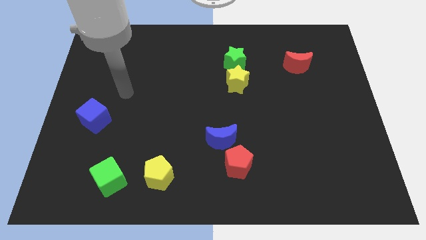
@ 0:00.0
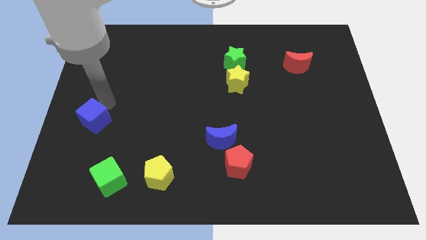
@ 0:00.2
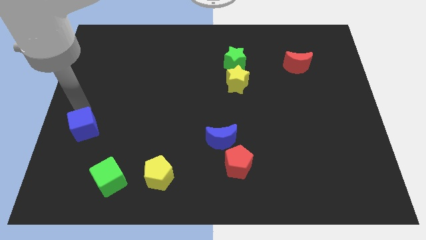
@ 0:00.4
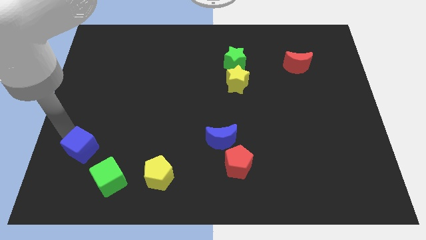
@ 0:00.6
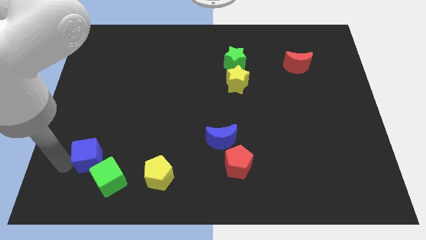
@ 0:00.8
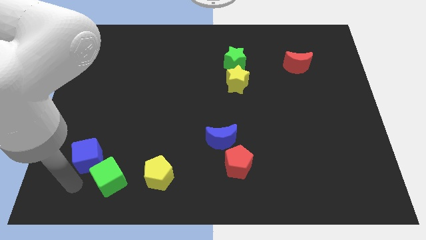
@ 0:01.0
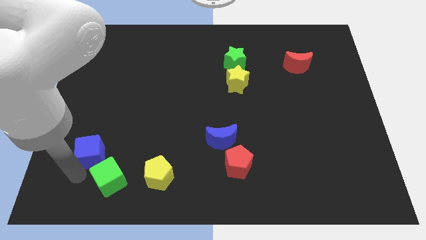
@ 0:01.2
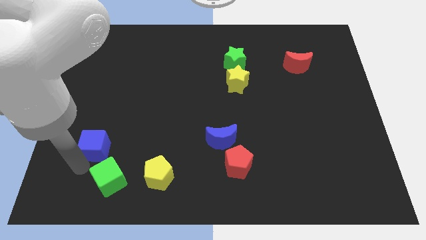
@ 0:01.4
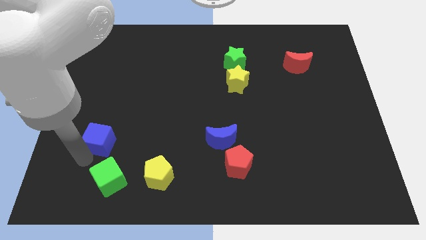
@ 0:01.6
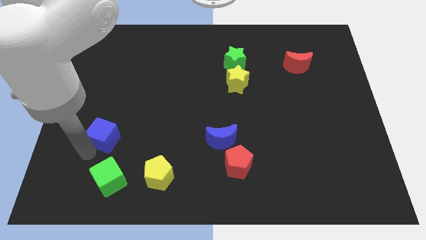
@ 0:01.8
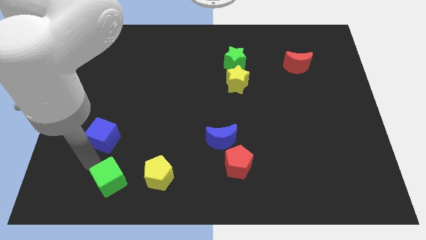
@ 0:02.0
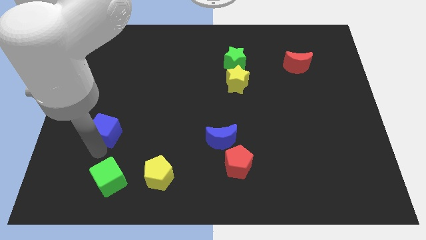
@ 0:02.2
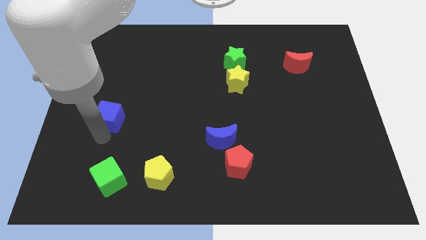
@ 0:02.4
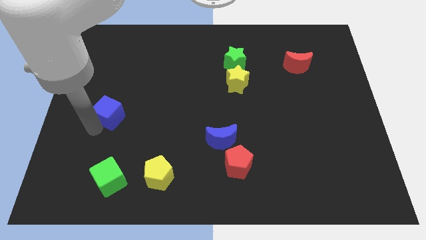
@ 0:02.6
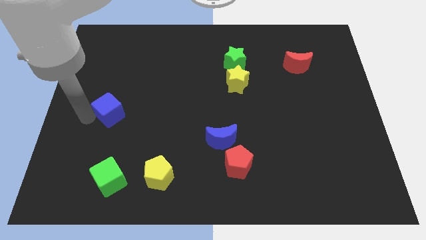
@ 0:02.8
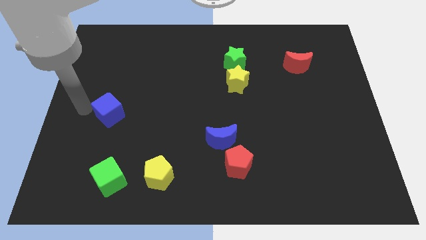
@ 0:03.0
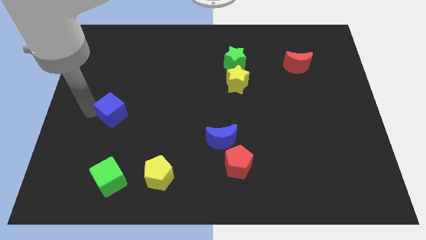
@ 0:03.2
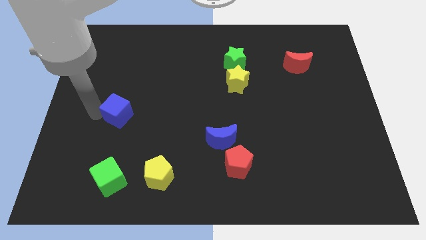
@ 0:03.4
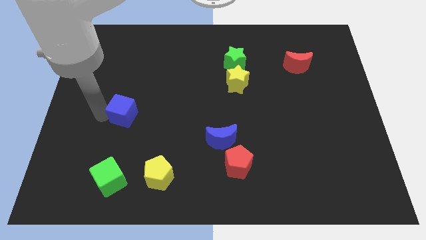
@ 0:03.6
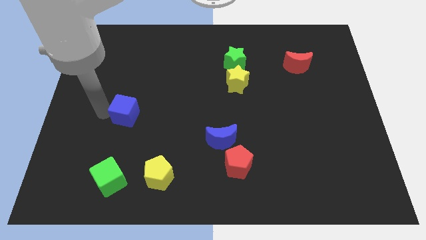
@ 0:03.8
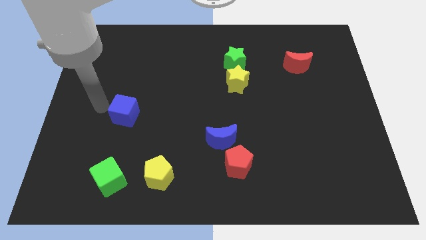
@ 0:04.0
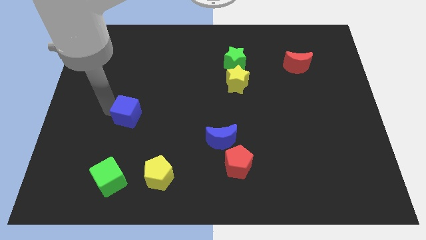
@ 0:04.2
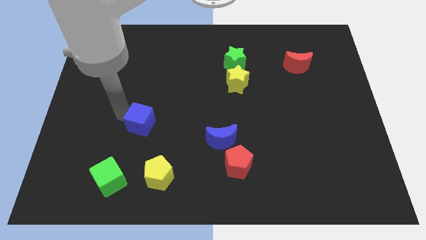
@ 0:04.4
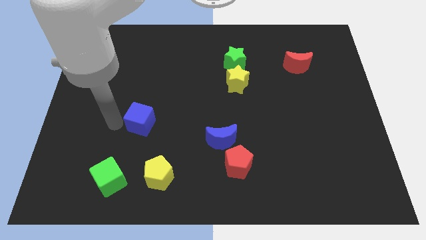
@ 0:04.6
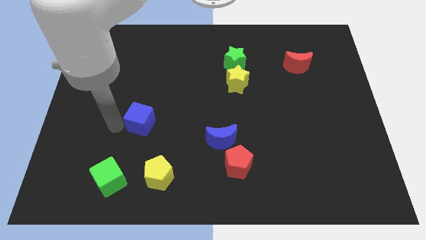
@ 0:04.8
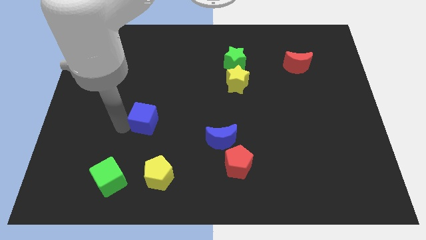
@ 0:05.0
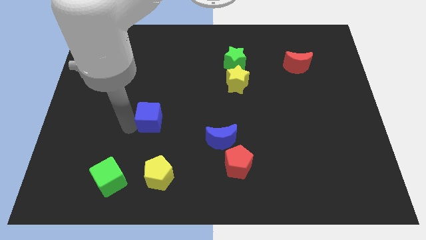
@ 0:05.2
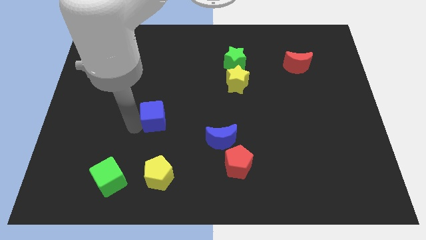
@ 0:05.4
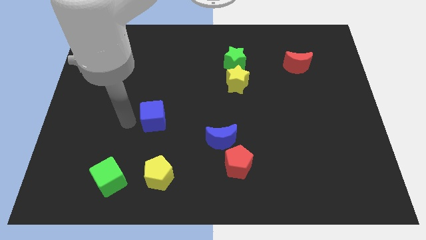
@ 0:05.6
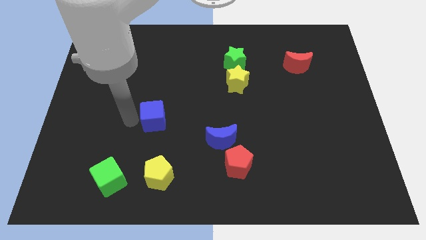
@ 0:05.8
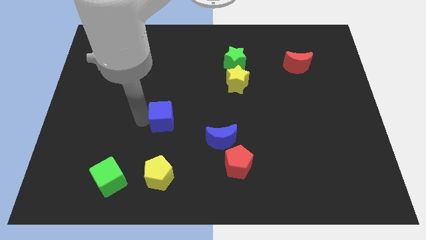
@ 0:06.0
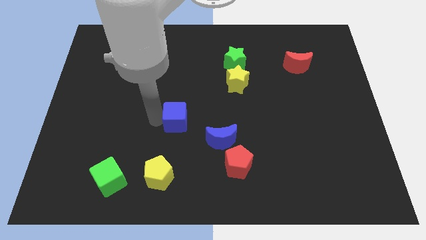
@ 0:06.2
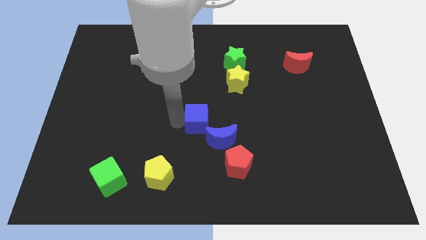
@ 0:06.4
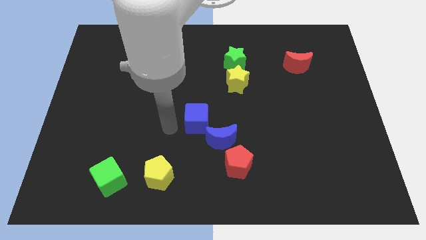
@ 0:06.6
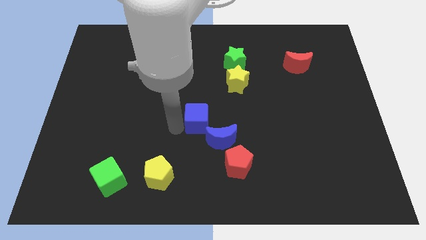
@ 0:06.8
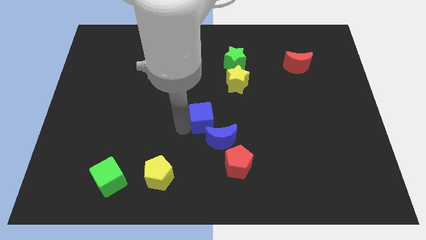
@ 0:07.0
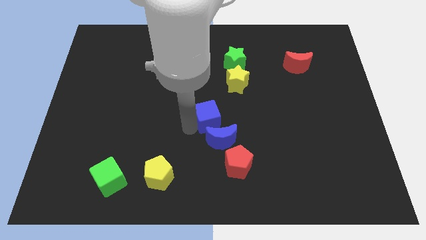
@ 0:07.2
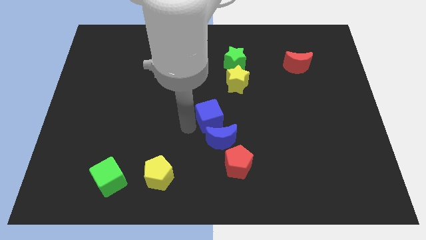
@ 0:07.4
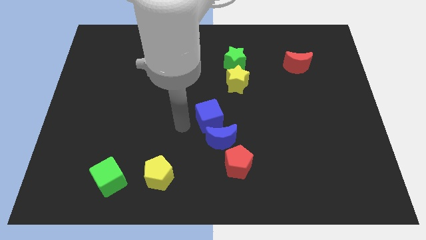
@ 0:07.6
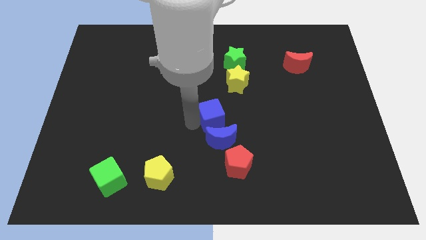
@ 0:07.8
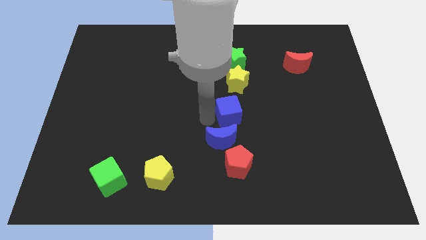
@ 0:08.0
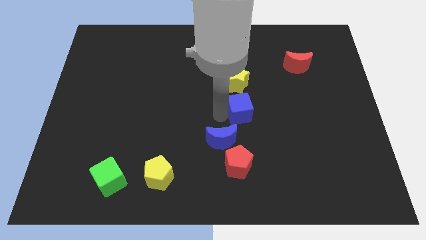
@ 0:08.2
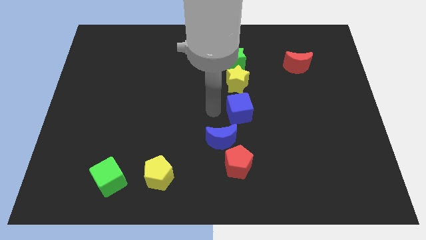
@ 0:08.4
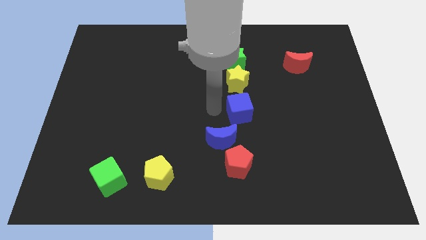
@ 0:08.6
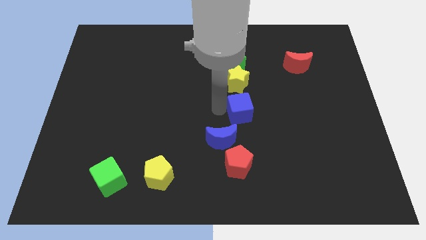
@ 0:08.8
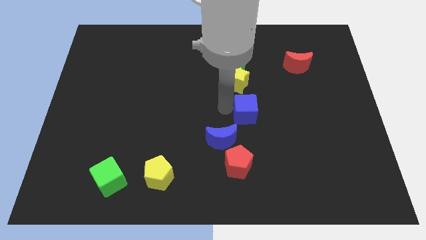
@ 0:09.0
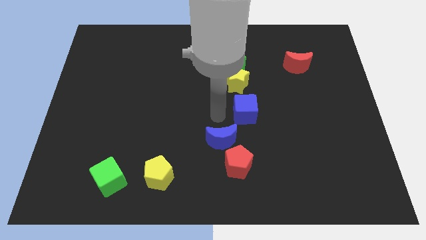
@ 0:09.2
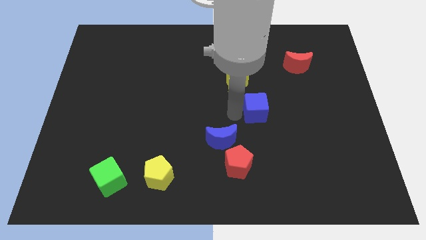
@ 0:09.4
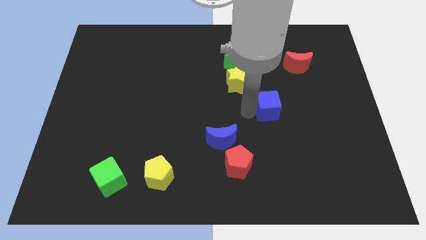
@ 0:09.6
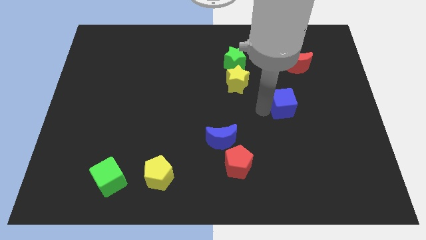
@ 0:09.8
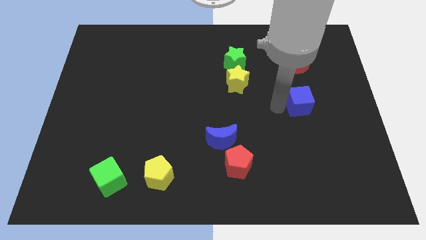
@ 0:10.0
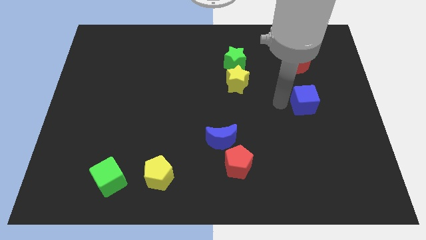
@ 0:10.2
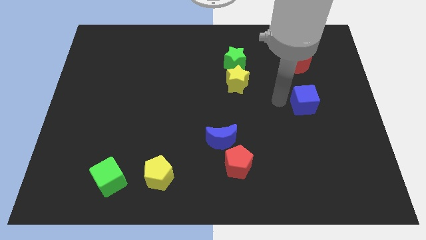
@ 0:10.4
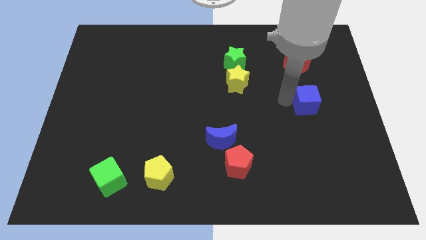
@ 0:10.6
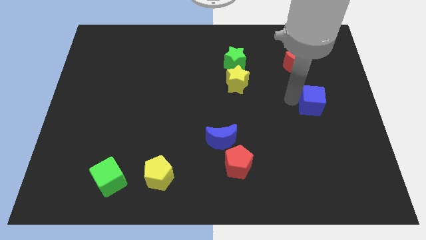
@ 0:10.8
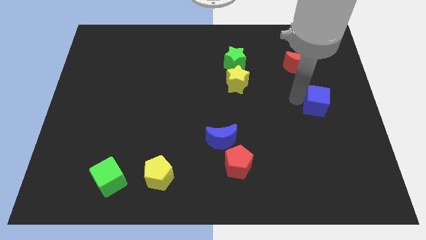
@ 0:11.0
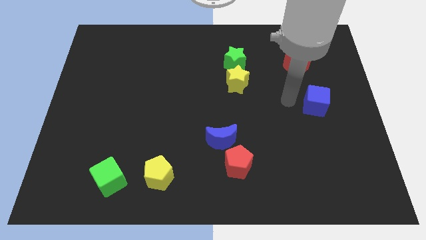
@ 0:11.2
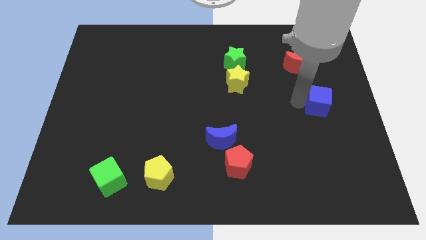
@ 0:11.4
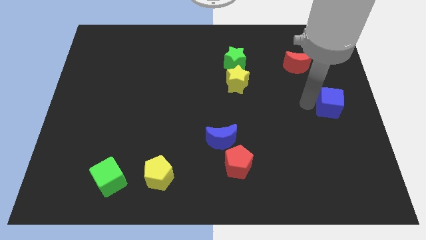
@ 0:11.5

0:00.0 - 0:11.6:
move the blue cube to the right side
